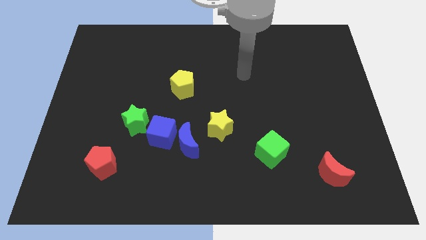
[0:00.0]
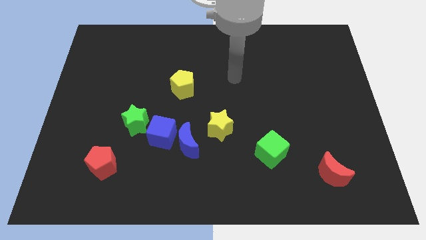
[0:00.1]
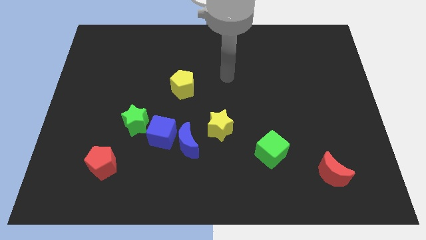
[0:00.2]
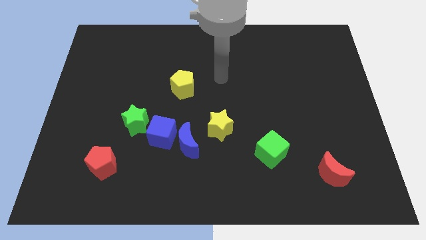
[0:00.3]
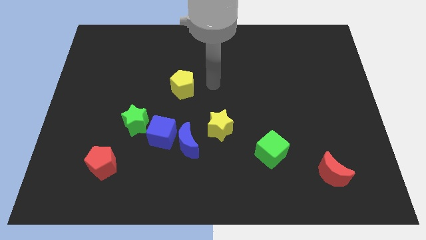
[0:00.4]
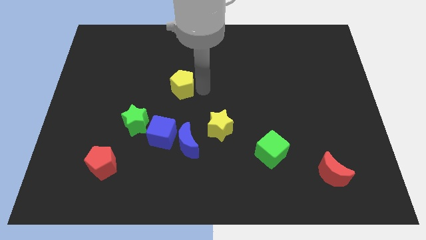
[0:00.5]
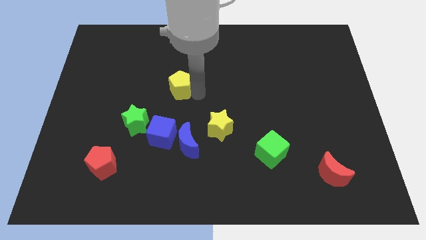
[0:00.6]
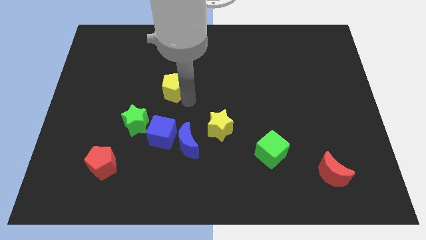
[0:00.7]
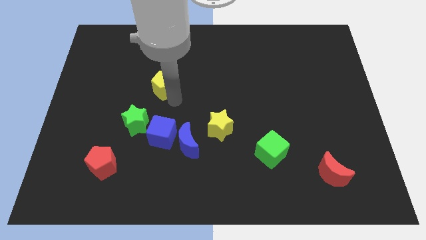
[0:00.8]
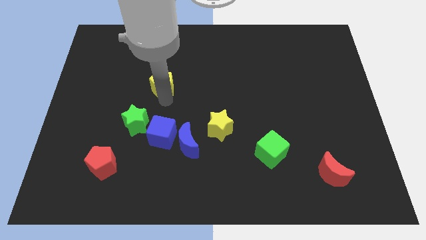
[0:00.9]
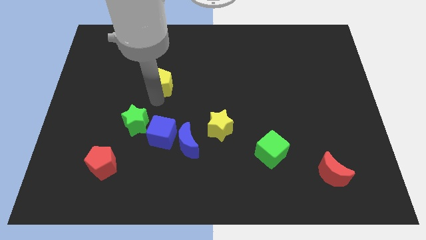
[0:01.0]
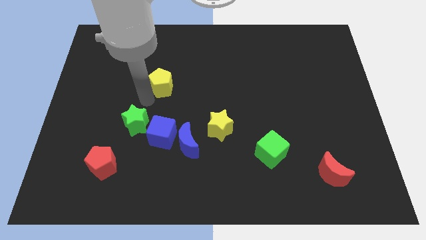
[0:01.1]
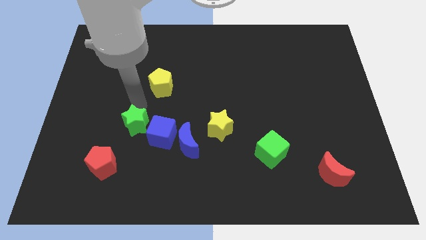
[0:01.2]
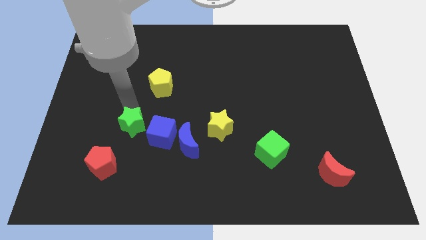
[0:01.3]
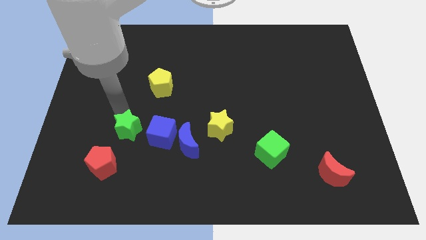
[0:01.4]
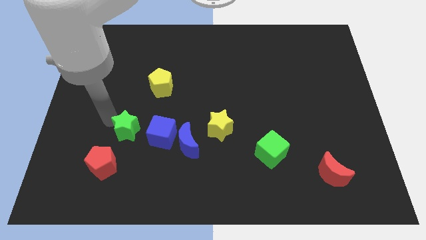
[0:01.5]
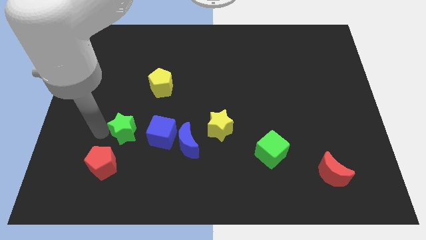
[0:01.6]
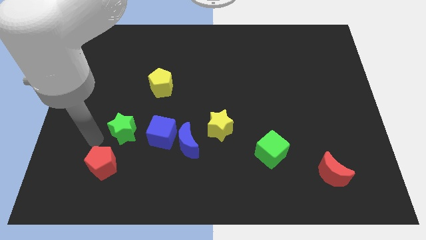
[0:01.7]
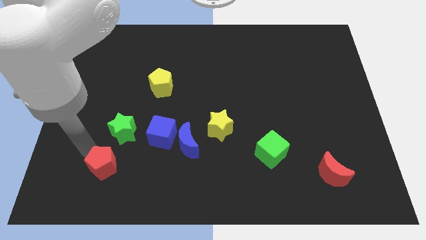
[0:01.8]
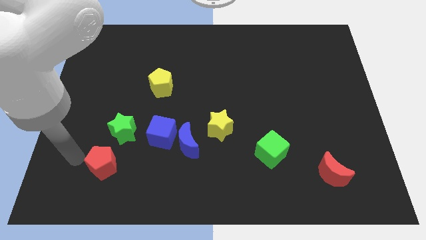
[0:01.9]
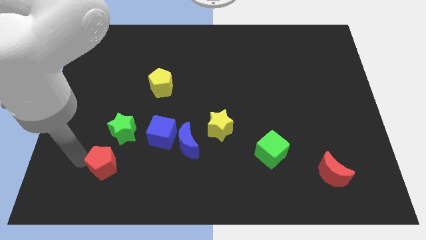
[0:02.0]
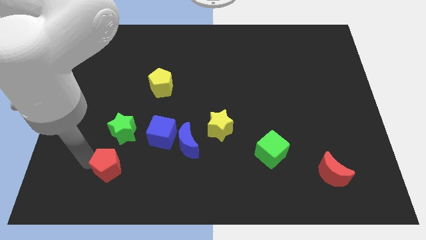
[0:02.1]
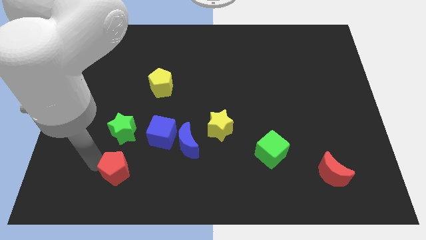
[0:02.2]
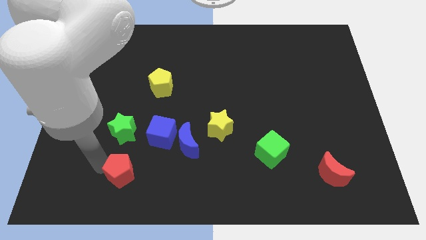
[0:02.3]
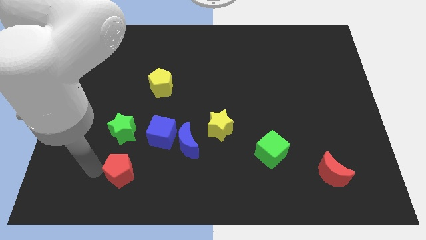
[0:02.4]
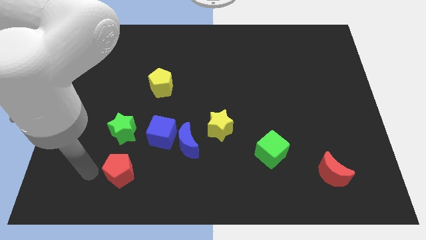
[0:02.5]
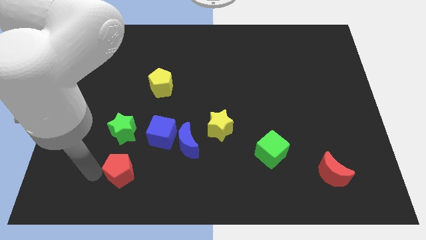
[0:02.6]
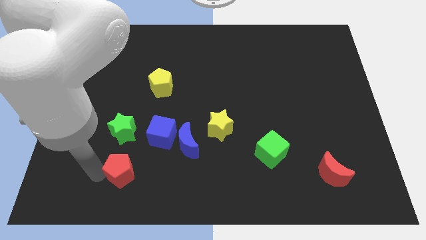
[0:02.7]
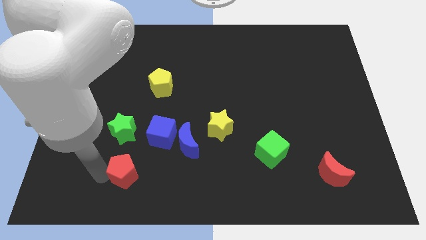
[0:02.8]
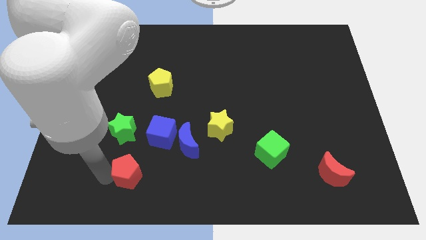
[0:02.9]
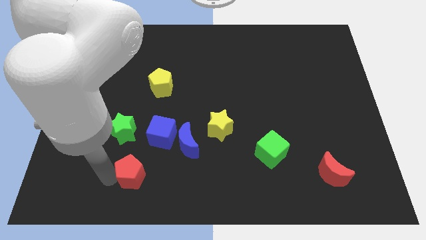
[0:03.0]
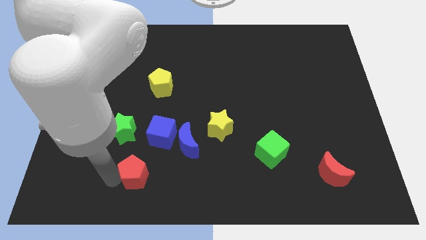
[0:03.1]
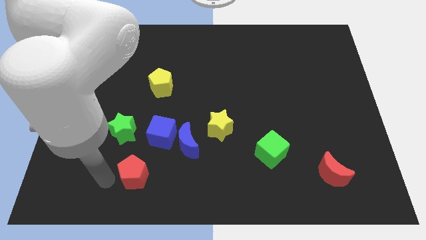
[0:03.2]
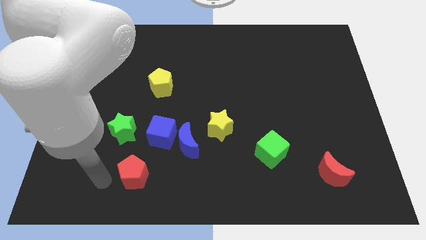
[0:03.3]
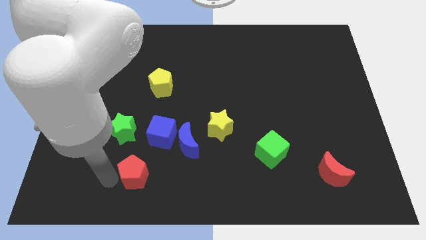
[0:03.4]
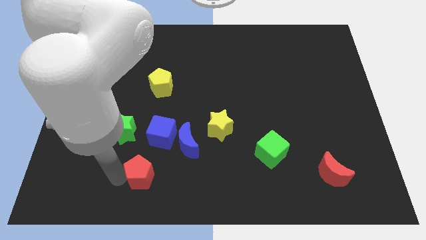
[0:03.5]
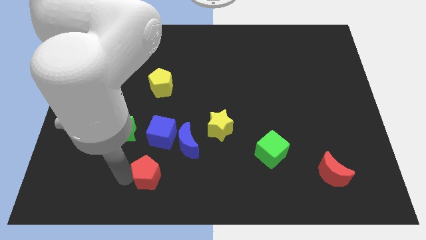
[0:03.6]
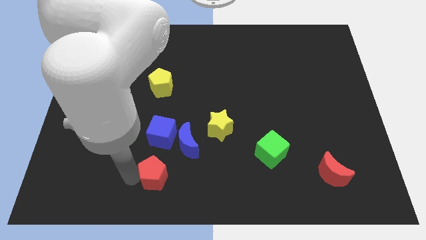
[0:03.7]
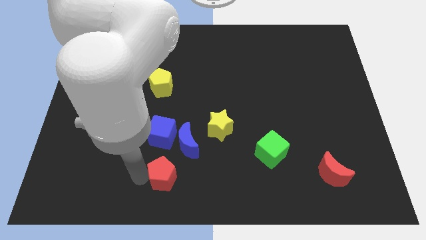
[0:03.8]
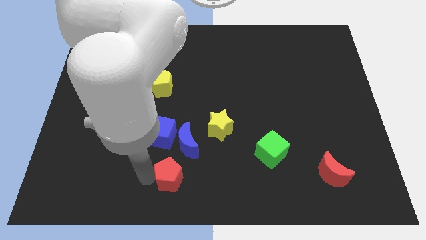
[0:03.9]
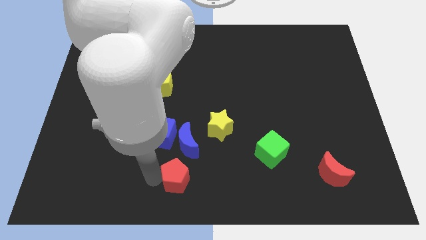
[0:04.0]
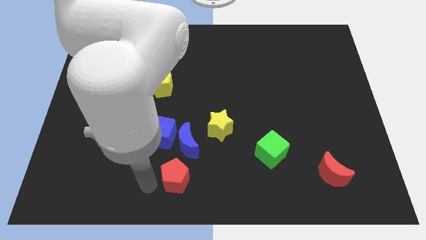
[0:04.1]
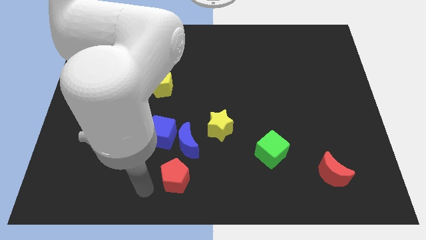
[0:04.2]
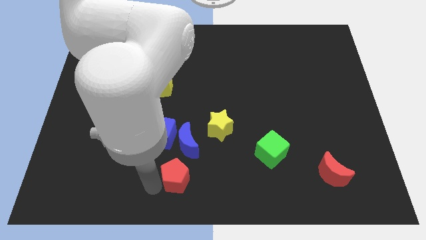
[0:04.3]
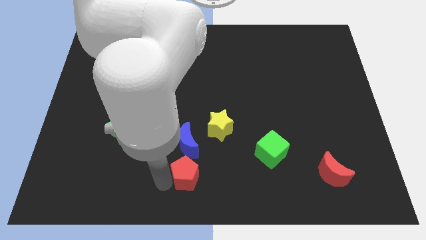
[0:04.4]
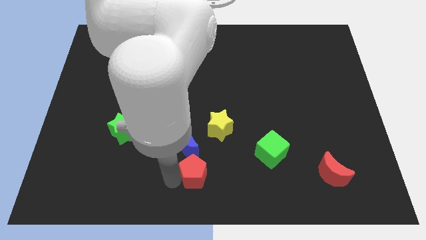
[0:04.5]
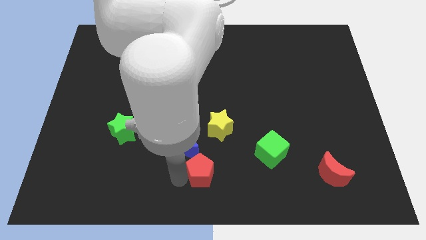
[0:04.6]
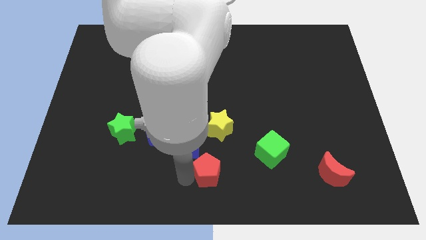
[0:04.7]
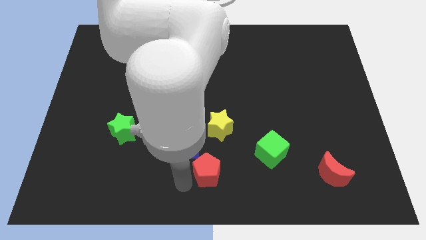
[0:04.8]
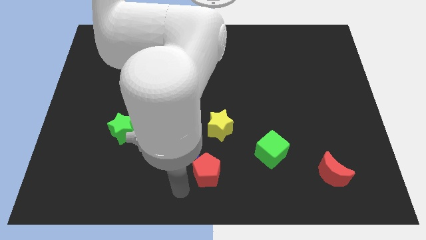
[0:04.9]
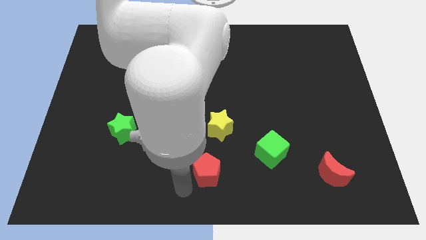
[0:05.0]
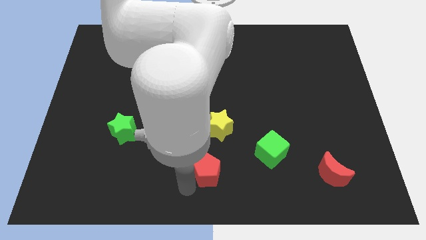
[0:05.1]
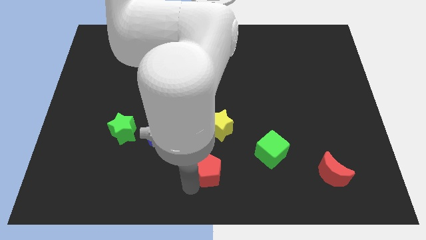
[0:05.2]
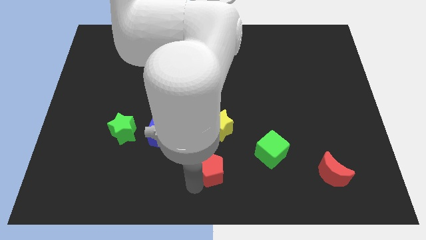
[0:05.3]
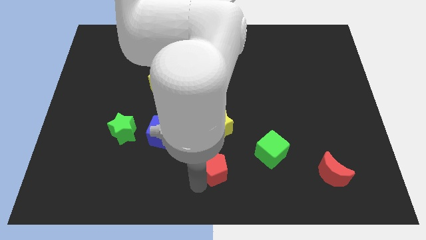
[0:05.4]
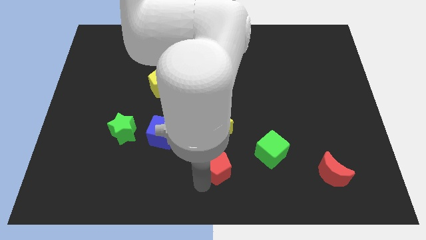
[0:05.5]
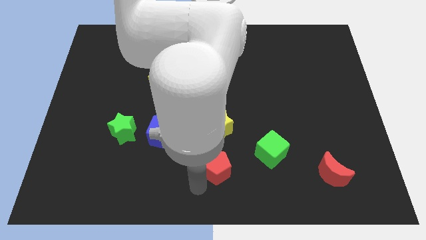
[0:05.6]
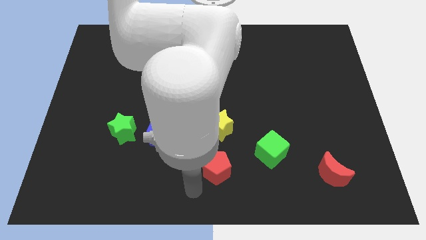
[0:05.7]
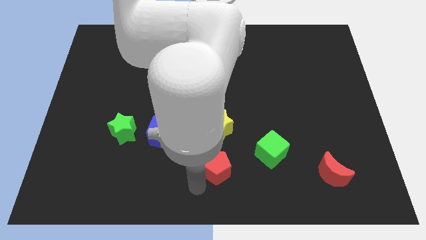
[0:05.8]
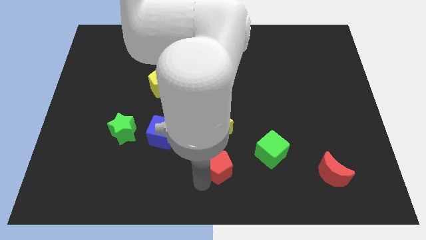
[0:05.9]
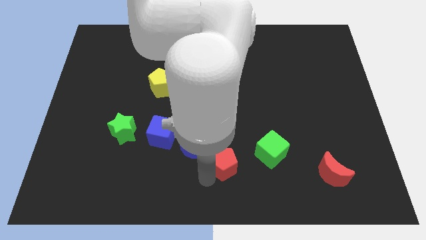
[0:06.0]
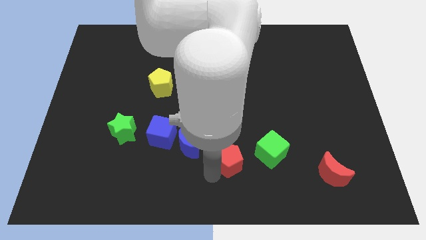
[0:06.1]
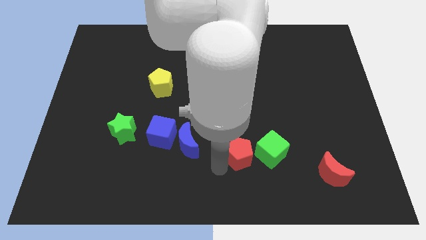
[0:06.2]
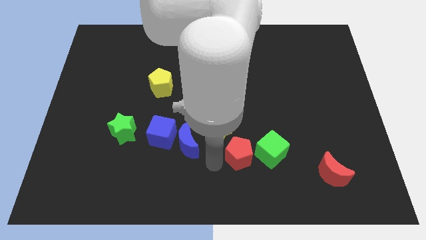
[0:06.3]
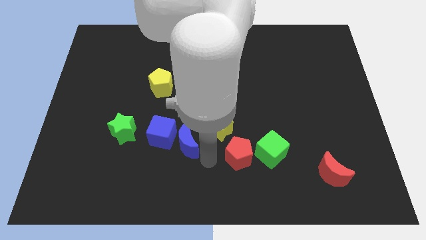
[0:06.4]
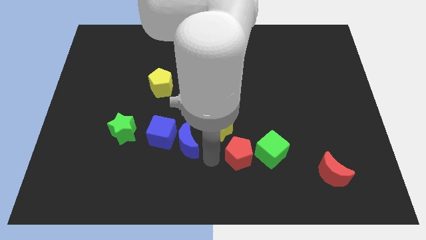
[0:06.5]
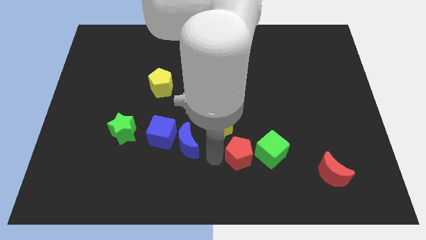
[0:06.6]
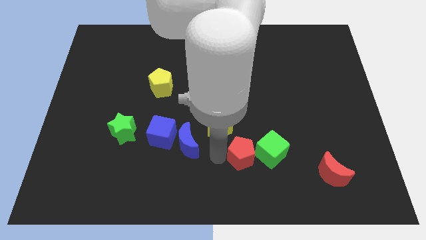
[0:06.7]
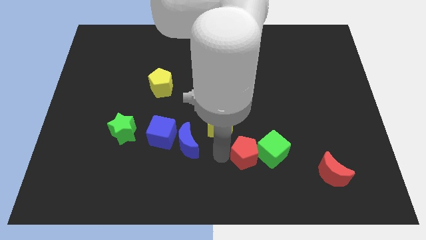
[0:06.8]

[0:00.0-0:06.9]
push the red pentagon close to the green cube
